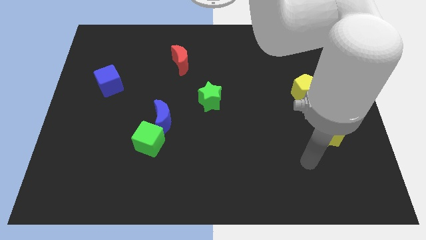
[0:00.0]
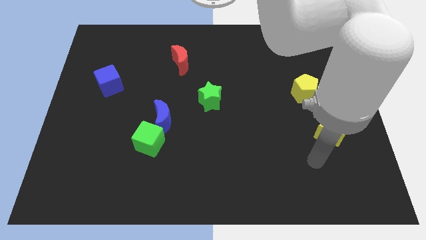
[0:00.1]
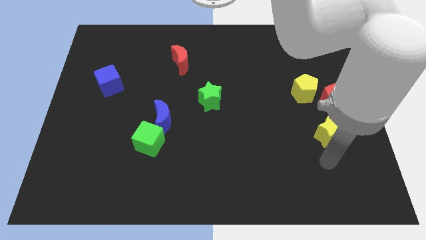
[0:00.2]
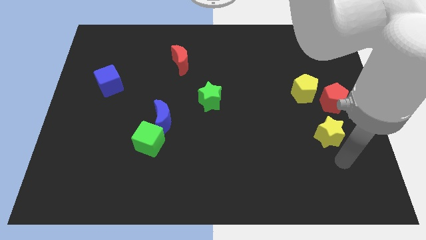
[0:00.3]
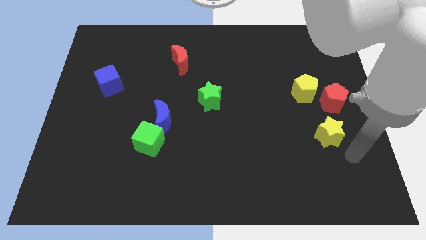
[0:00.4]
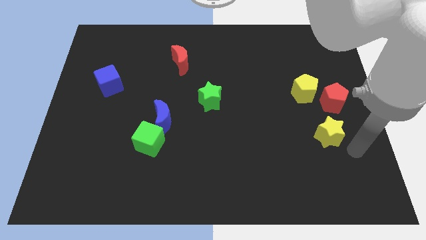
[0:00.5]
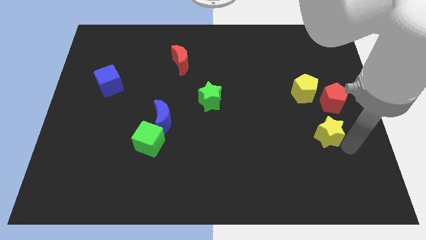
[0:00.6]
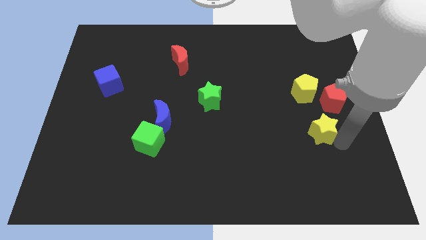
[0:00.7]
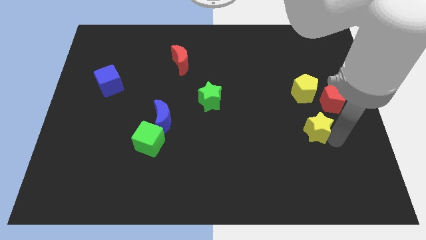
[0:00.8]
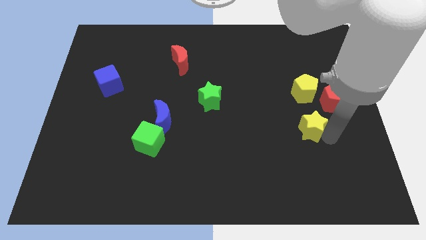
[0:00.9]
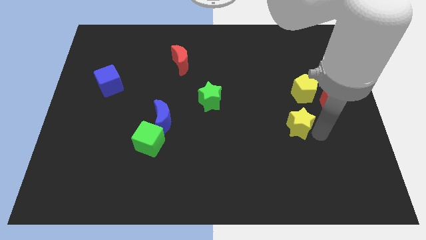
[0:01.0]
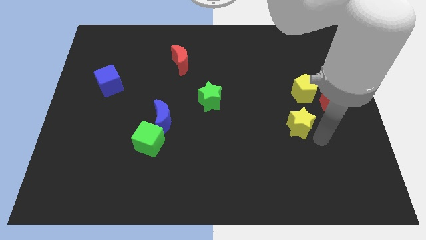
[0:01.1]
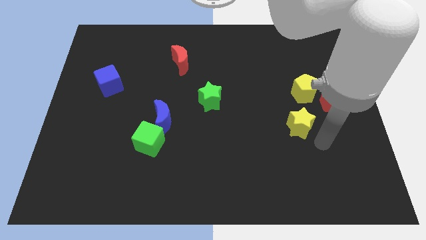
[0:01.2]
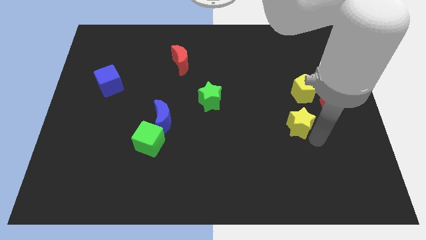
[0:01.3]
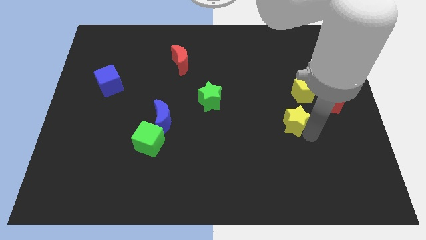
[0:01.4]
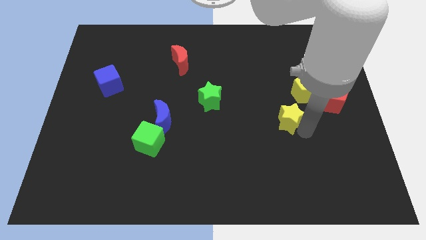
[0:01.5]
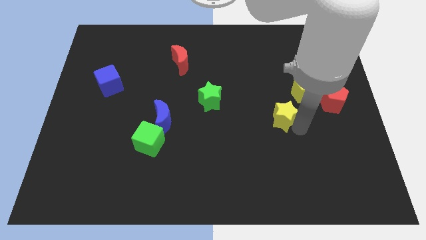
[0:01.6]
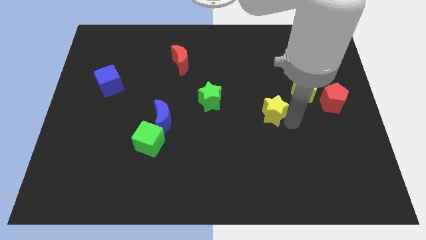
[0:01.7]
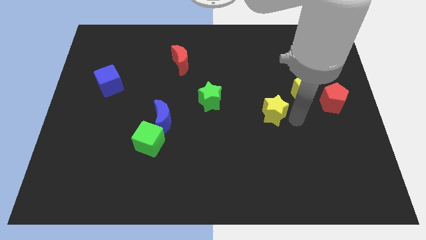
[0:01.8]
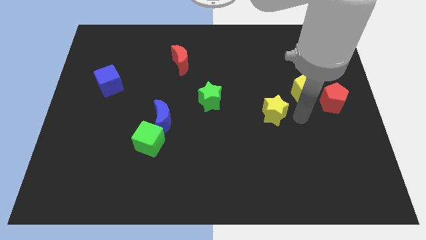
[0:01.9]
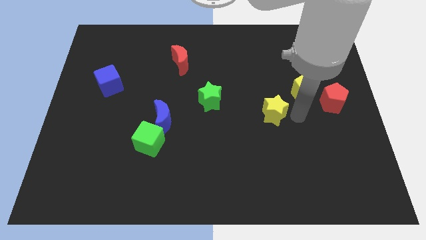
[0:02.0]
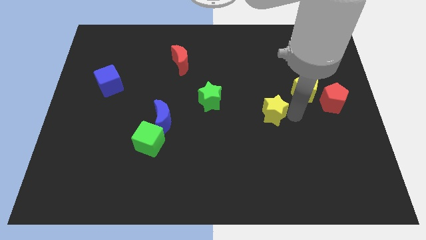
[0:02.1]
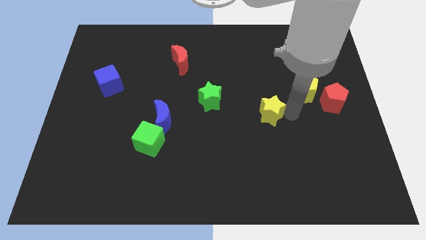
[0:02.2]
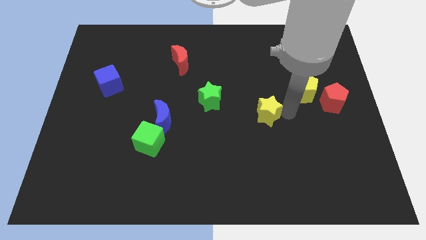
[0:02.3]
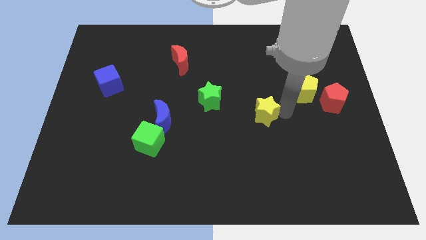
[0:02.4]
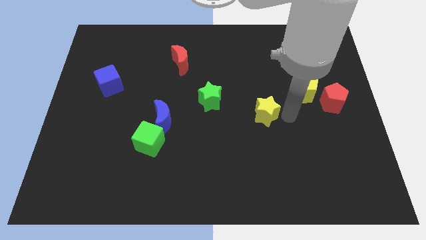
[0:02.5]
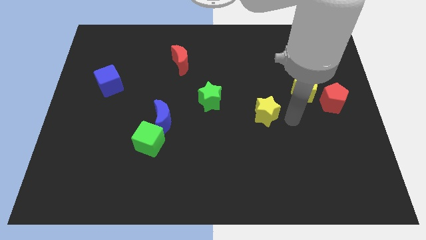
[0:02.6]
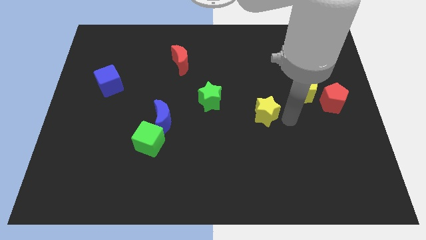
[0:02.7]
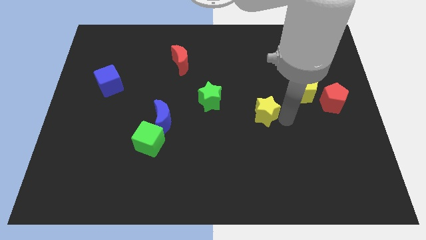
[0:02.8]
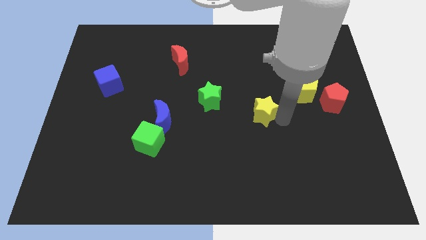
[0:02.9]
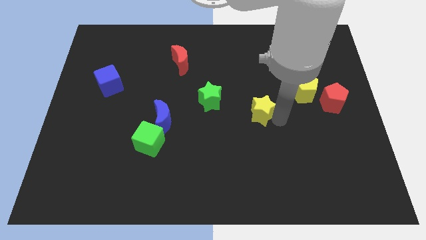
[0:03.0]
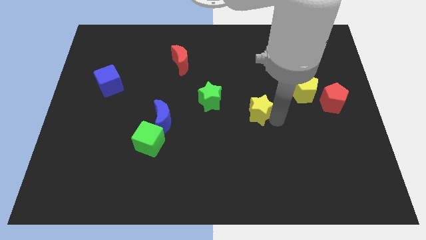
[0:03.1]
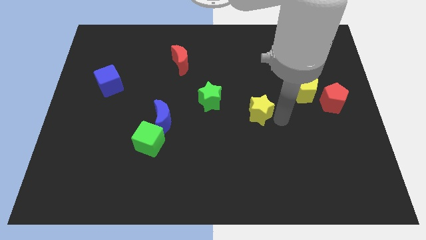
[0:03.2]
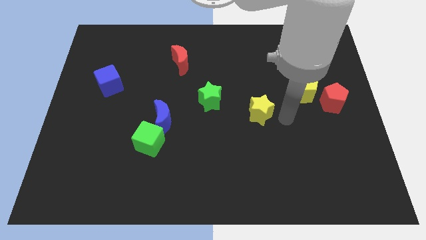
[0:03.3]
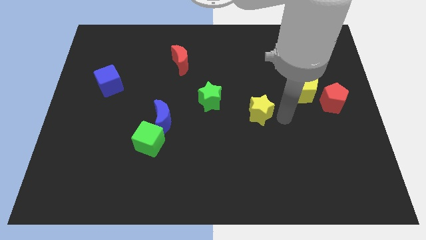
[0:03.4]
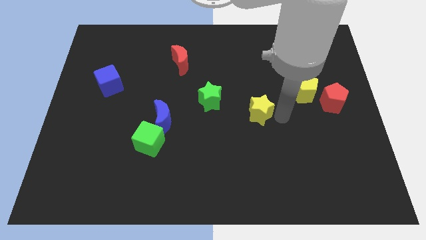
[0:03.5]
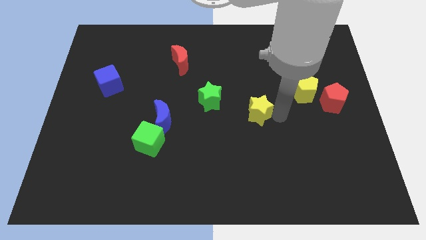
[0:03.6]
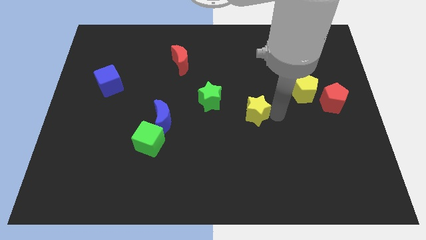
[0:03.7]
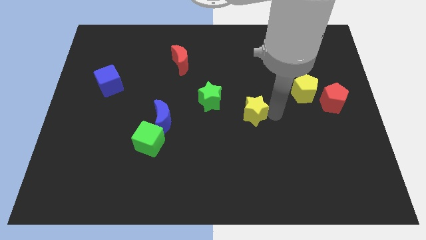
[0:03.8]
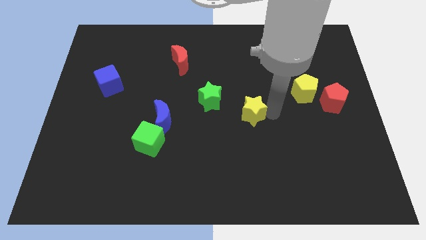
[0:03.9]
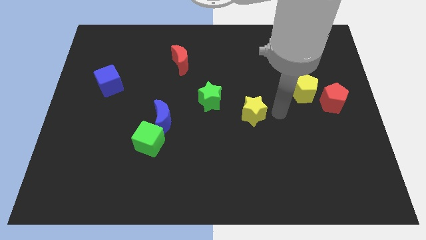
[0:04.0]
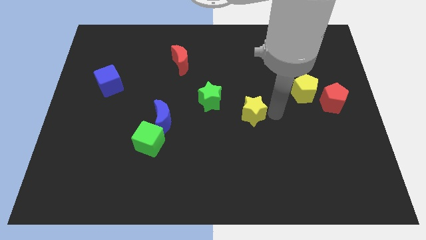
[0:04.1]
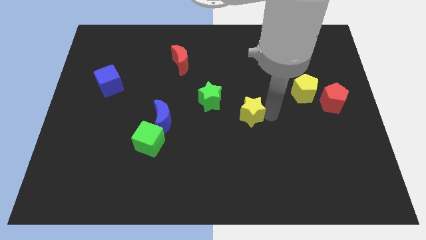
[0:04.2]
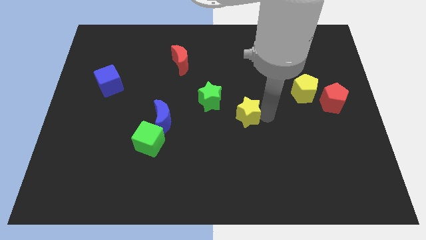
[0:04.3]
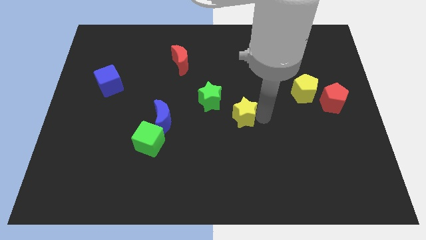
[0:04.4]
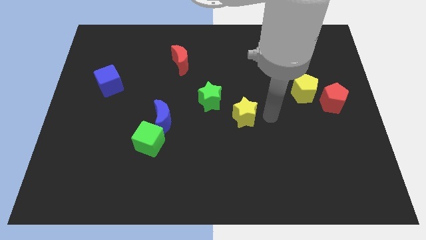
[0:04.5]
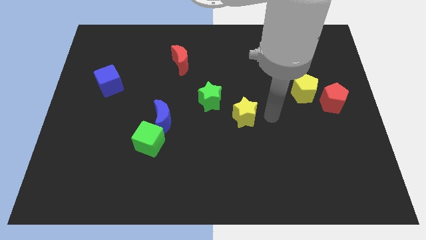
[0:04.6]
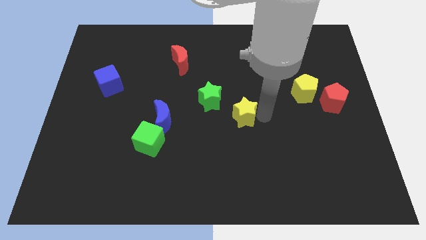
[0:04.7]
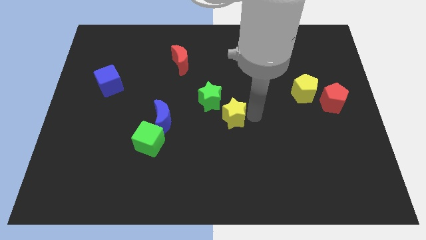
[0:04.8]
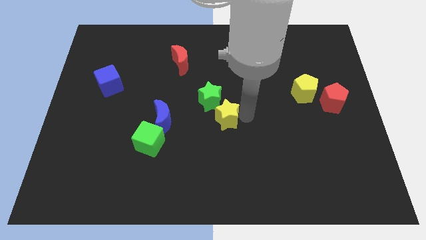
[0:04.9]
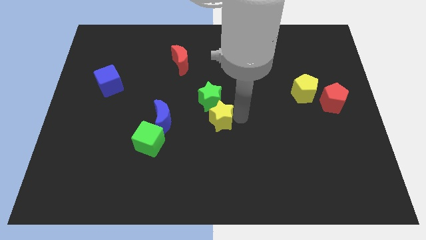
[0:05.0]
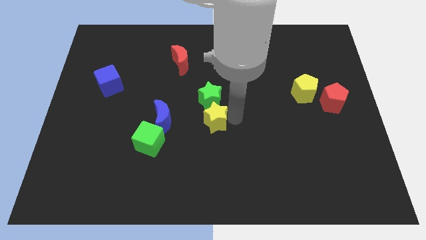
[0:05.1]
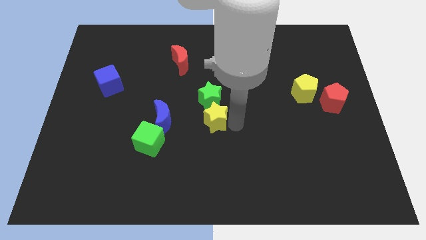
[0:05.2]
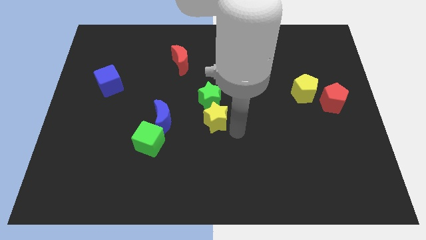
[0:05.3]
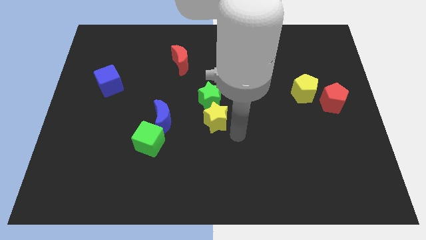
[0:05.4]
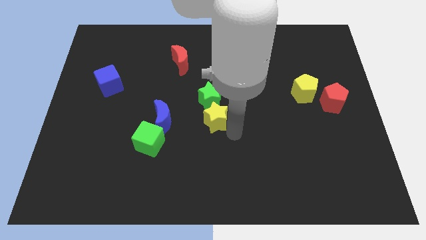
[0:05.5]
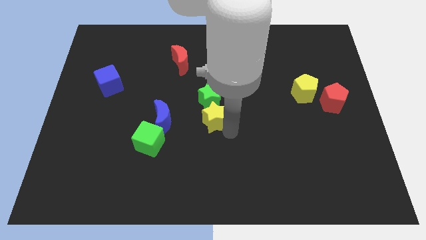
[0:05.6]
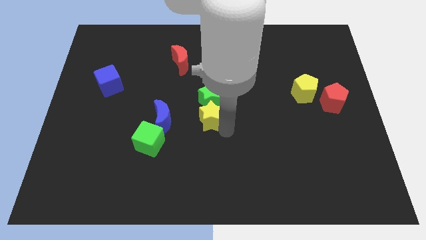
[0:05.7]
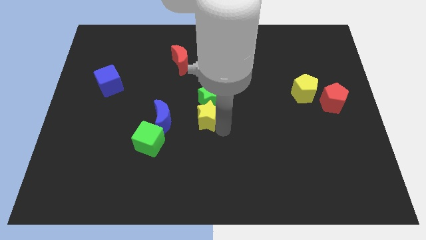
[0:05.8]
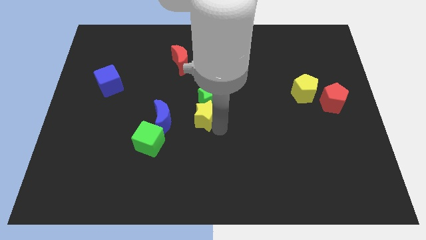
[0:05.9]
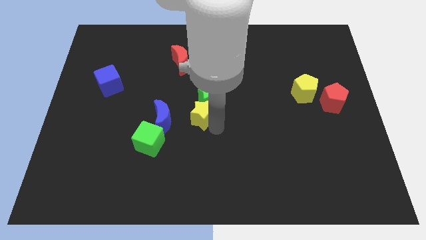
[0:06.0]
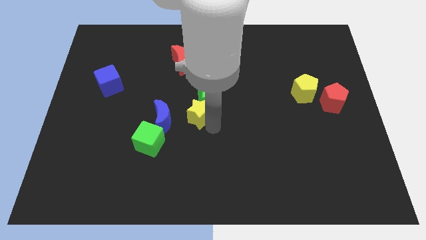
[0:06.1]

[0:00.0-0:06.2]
push the yellow star diagonally up and to the right of the blue moon

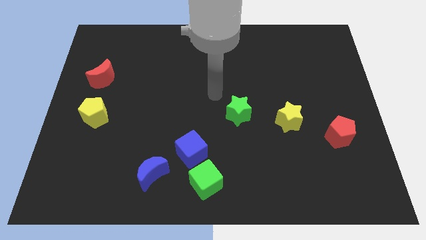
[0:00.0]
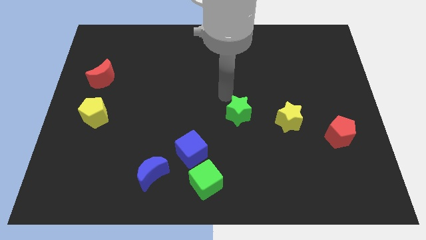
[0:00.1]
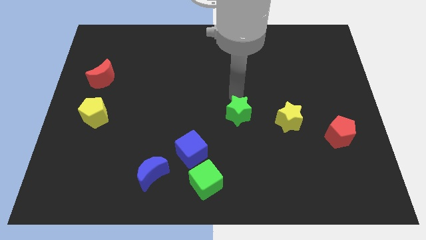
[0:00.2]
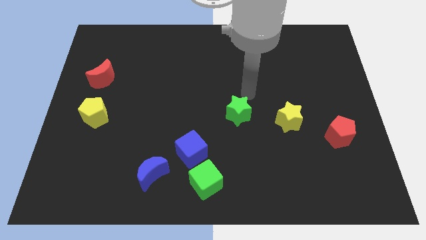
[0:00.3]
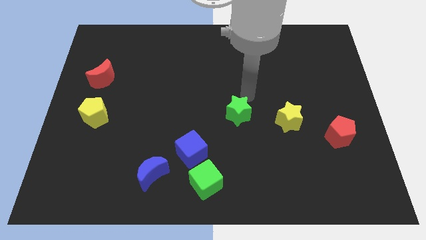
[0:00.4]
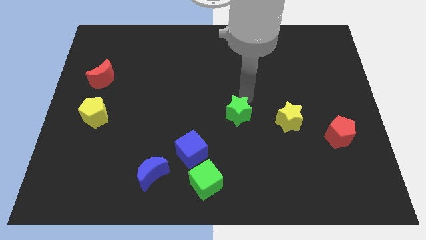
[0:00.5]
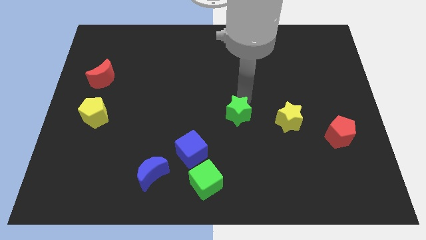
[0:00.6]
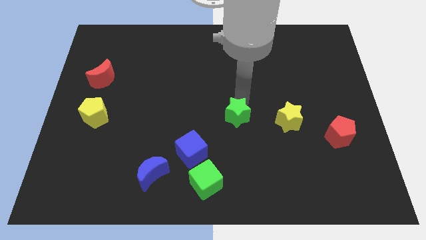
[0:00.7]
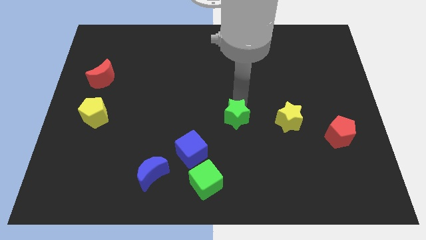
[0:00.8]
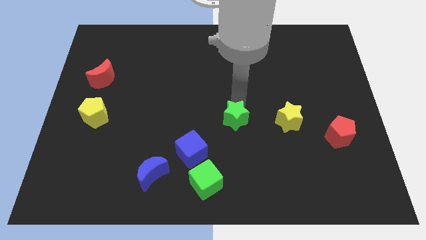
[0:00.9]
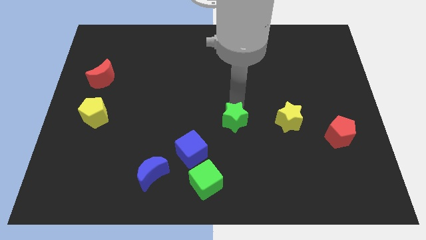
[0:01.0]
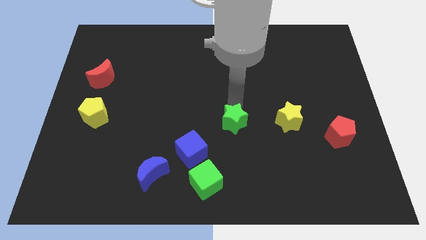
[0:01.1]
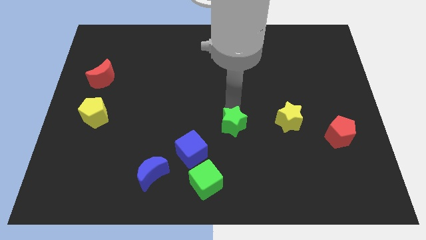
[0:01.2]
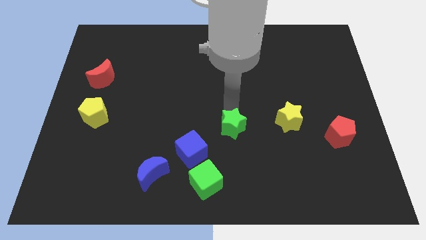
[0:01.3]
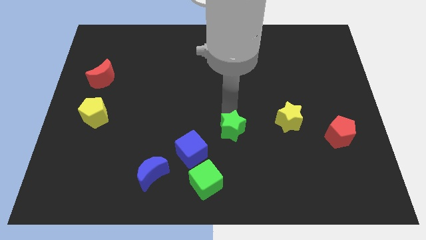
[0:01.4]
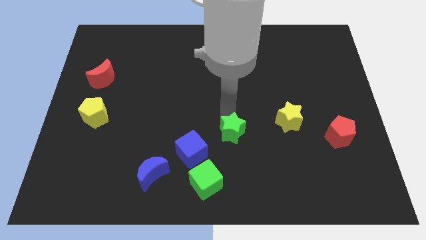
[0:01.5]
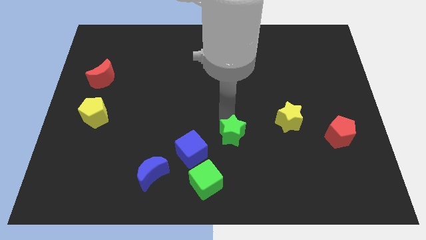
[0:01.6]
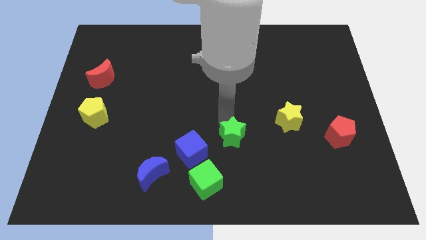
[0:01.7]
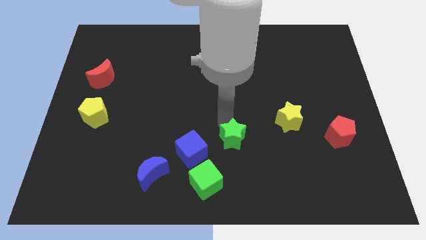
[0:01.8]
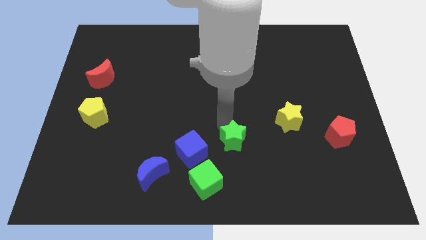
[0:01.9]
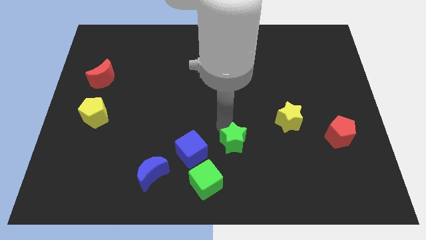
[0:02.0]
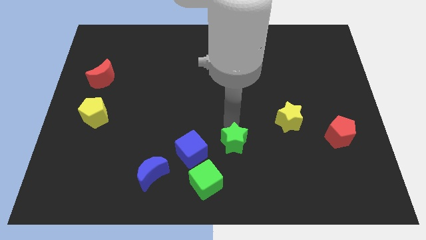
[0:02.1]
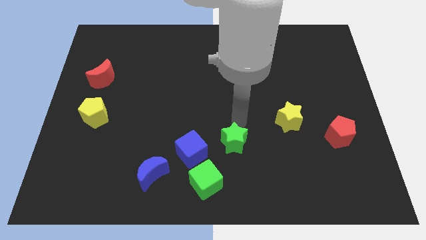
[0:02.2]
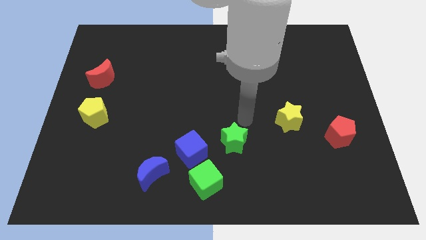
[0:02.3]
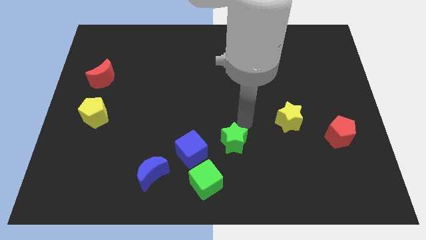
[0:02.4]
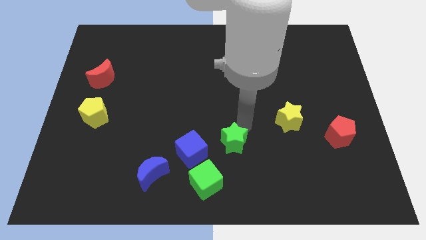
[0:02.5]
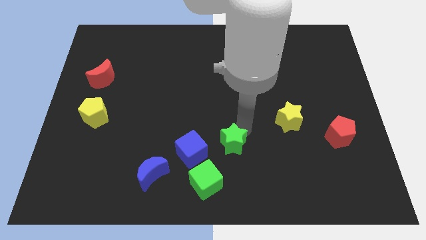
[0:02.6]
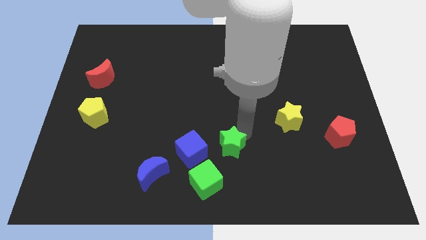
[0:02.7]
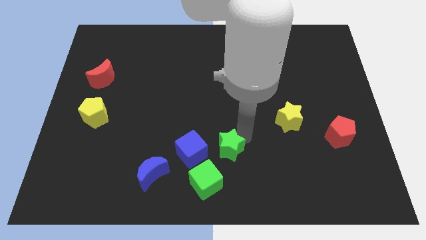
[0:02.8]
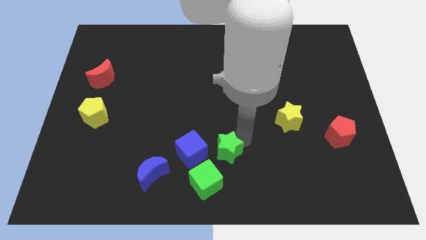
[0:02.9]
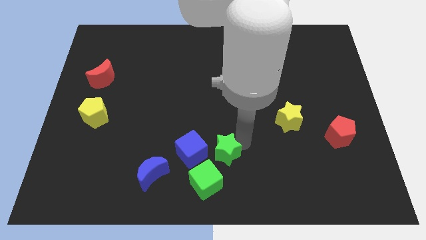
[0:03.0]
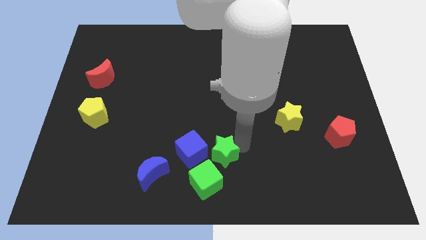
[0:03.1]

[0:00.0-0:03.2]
push the green star to the bottom right side of the blue cube
